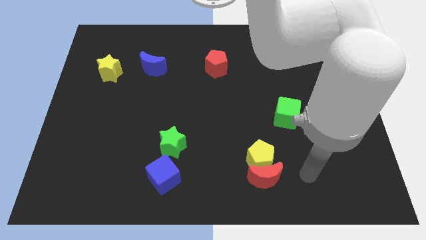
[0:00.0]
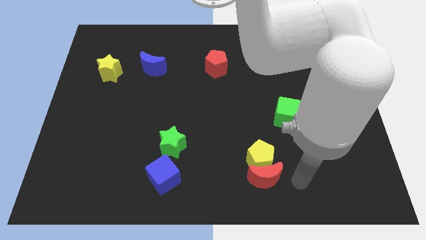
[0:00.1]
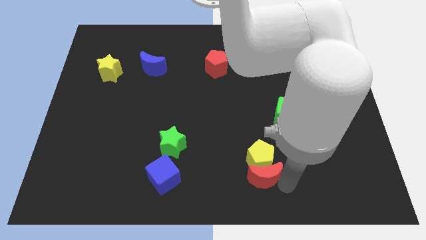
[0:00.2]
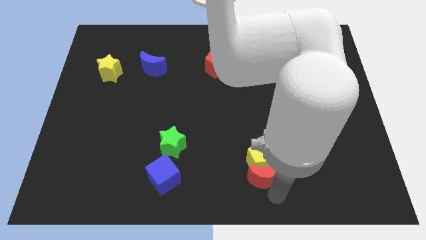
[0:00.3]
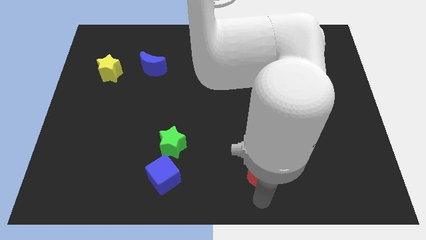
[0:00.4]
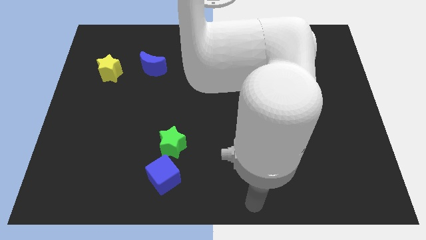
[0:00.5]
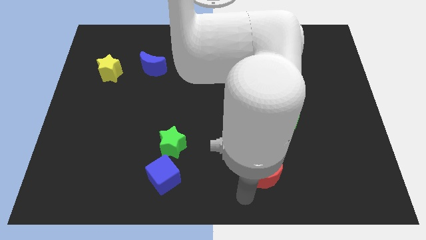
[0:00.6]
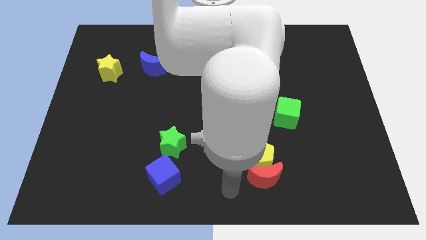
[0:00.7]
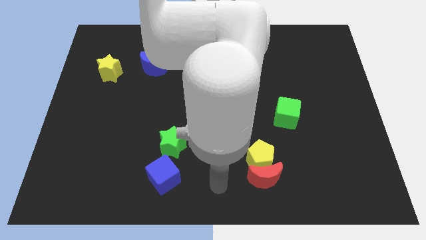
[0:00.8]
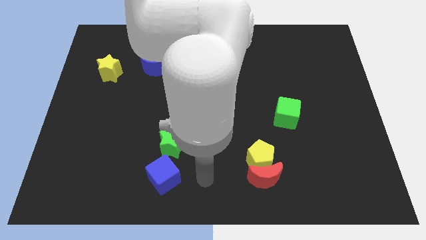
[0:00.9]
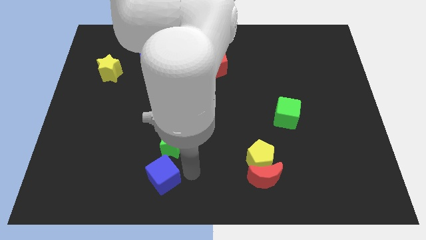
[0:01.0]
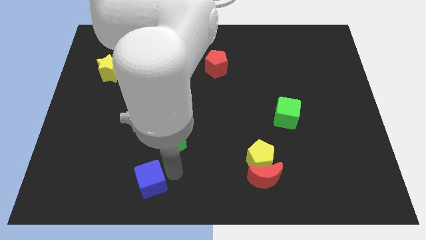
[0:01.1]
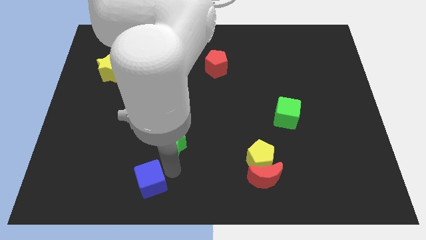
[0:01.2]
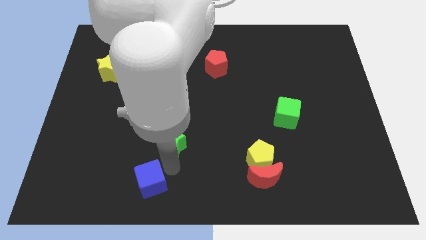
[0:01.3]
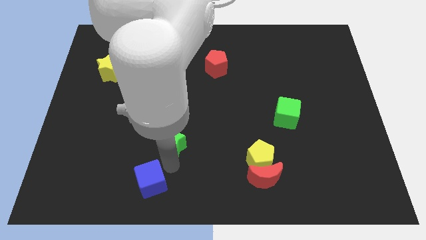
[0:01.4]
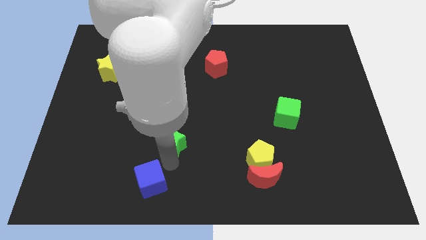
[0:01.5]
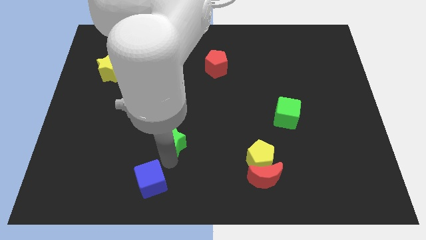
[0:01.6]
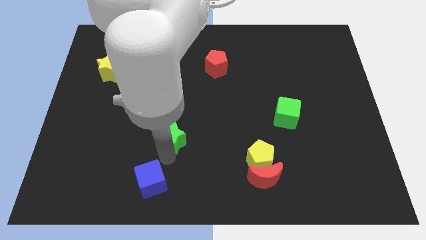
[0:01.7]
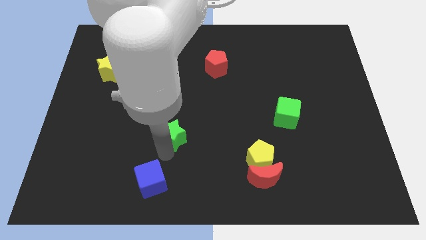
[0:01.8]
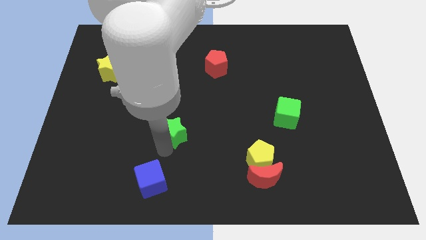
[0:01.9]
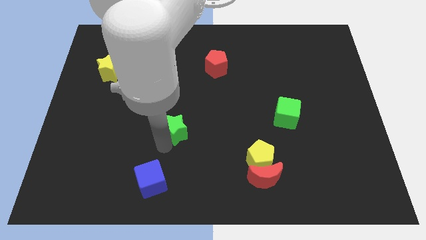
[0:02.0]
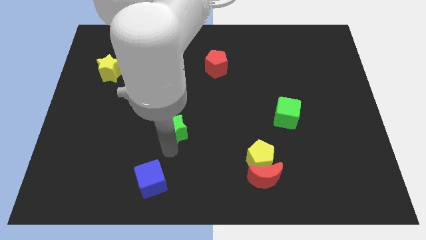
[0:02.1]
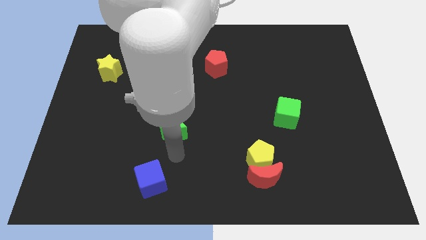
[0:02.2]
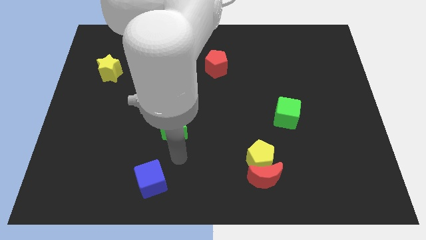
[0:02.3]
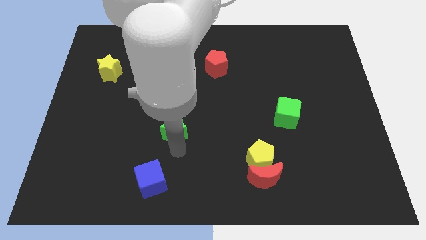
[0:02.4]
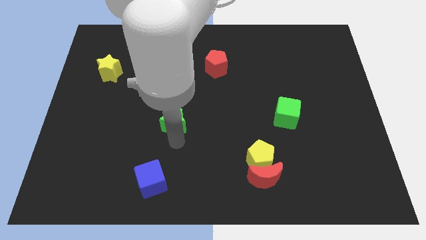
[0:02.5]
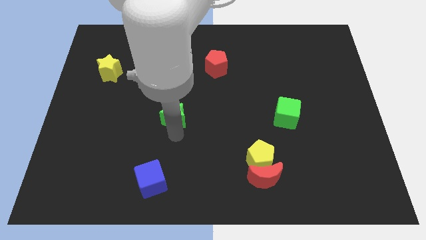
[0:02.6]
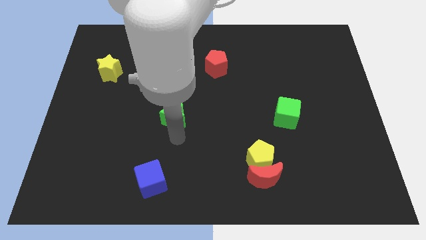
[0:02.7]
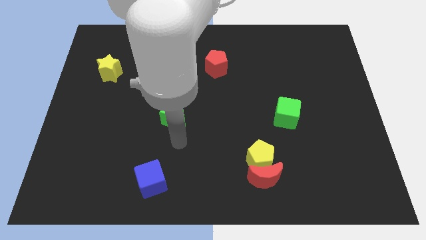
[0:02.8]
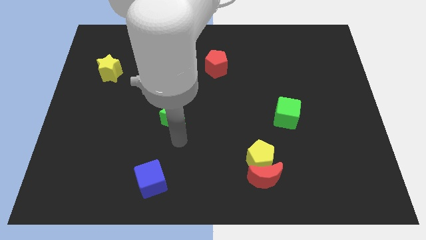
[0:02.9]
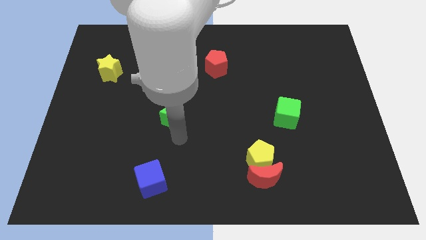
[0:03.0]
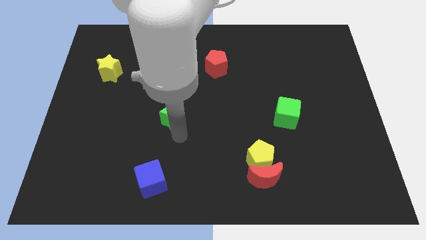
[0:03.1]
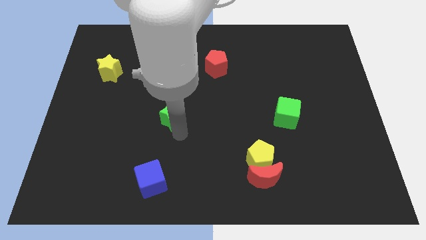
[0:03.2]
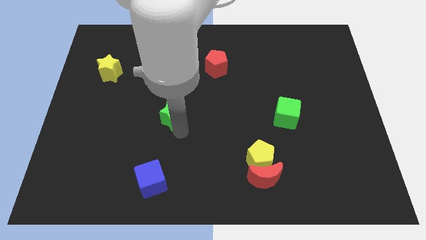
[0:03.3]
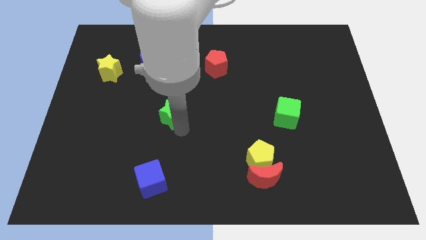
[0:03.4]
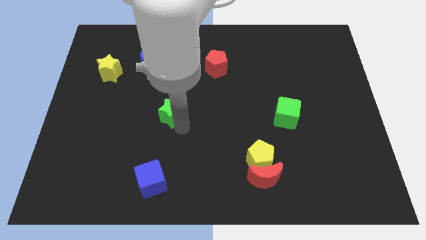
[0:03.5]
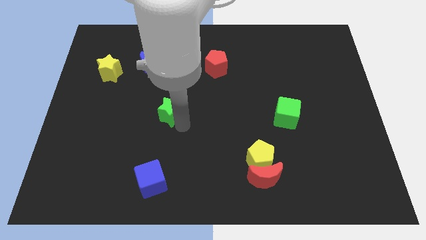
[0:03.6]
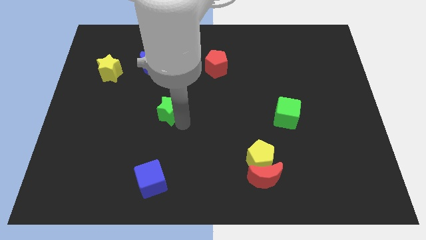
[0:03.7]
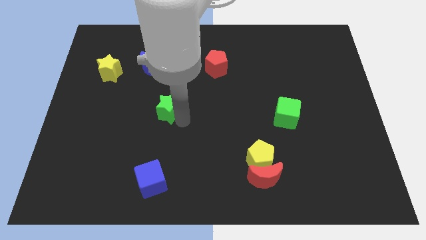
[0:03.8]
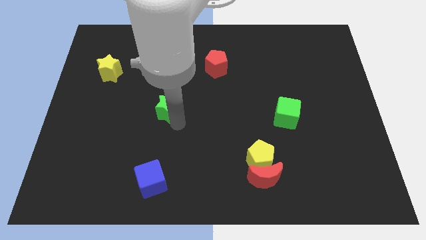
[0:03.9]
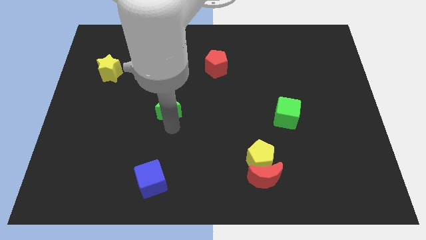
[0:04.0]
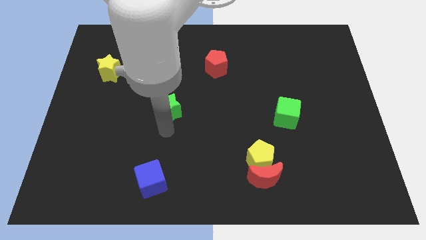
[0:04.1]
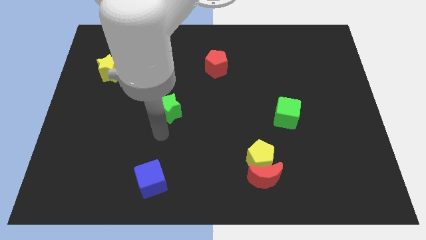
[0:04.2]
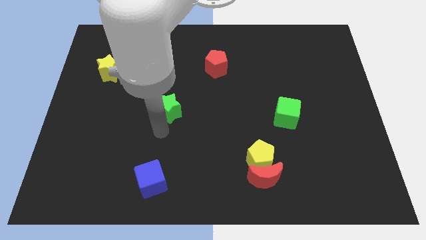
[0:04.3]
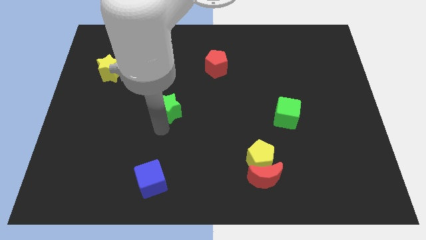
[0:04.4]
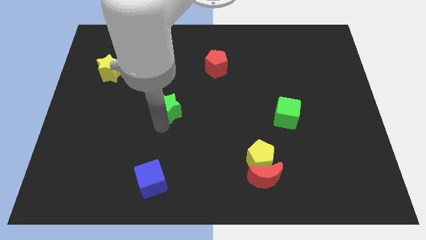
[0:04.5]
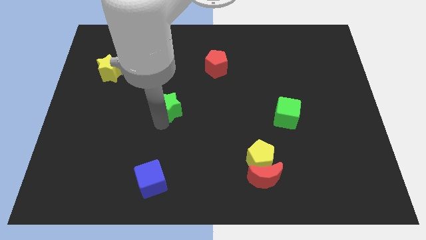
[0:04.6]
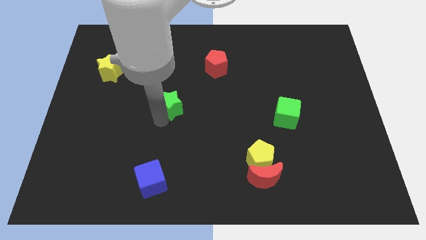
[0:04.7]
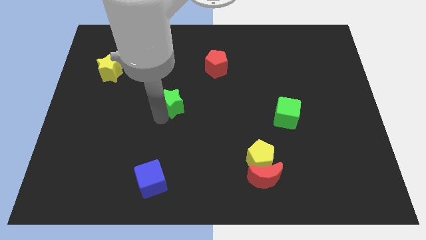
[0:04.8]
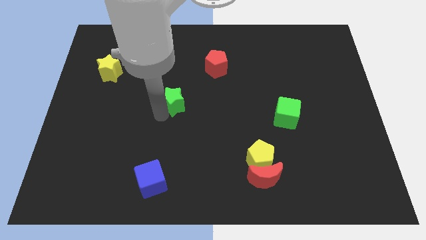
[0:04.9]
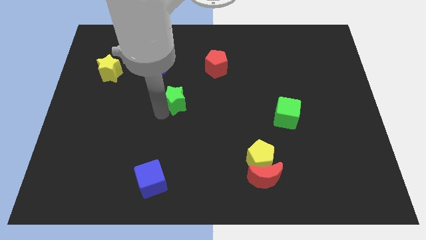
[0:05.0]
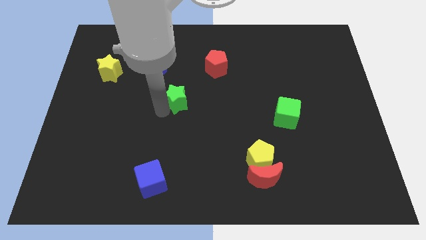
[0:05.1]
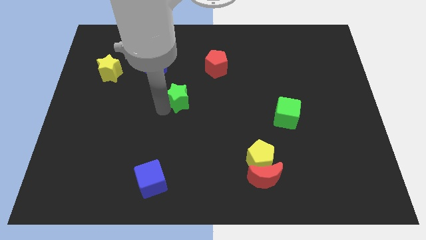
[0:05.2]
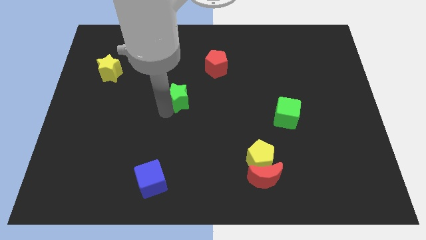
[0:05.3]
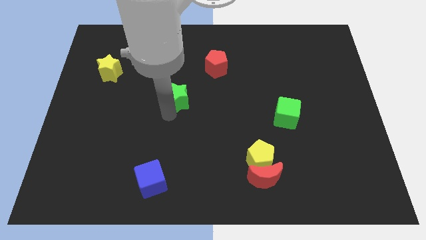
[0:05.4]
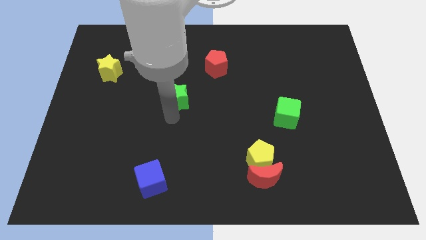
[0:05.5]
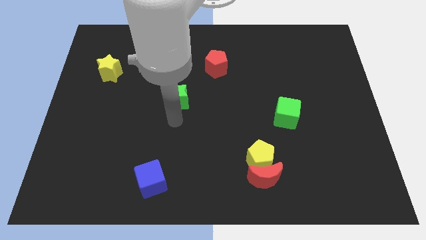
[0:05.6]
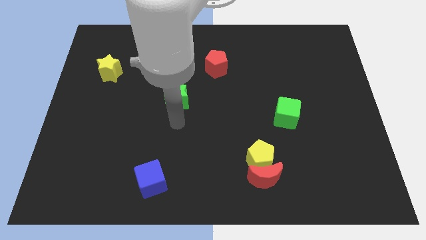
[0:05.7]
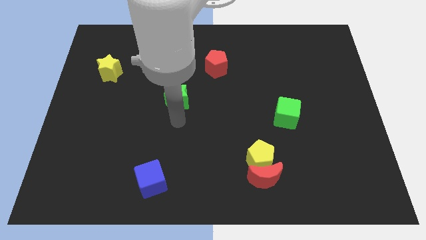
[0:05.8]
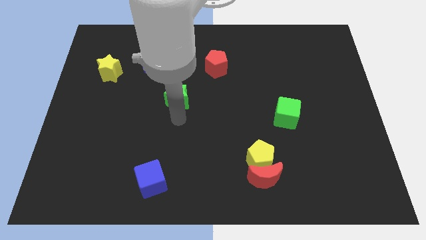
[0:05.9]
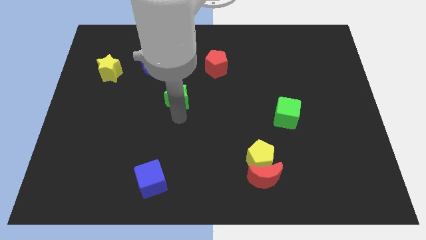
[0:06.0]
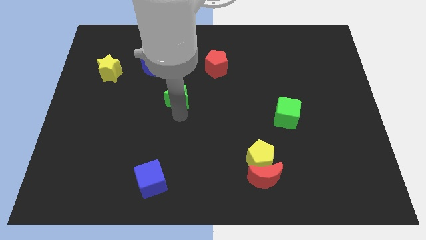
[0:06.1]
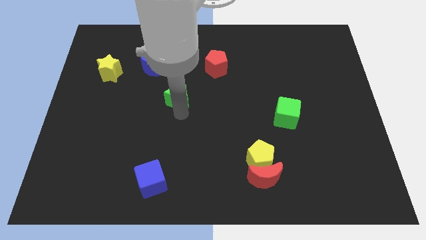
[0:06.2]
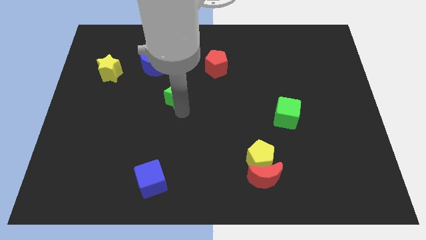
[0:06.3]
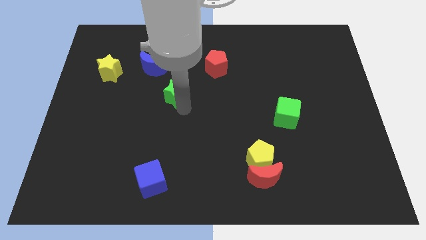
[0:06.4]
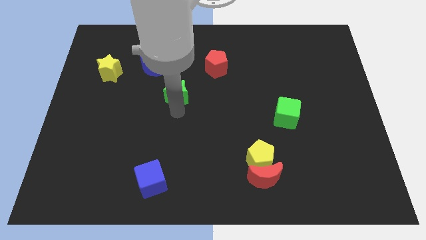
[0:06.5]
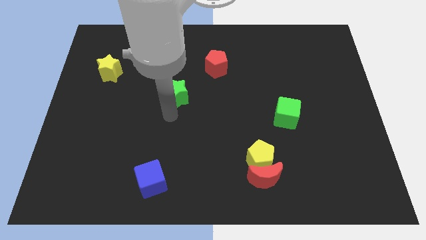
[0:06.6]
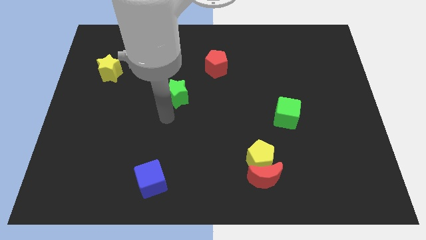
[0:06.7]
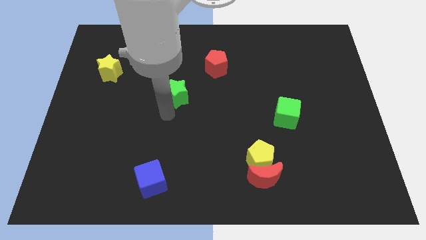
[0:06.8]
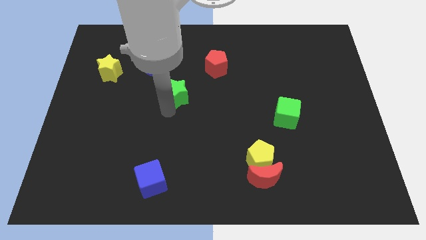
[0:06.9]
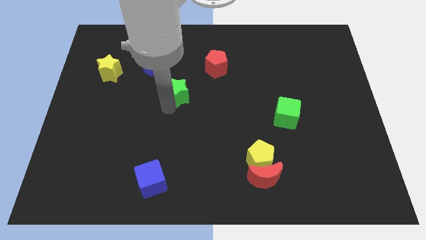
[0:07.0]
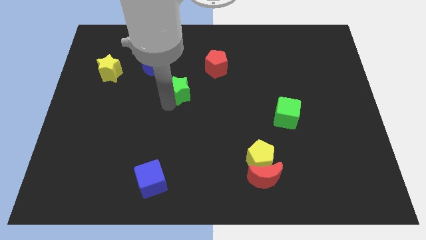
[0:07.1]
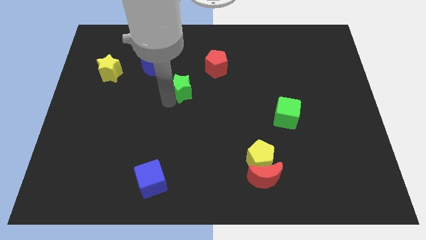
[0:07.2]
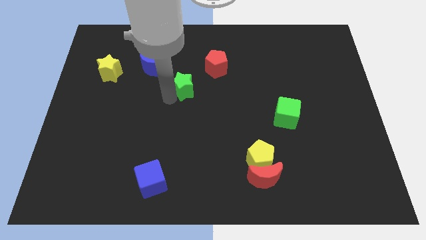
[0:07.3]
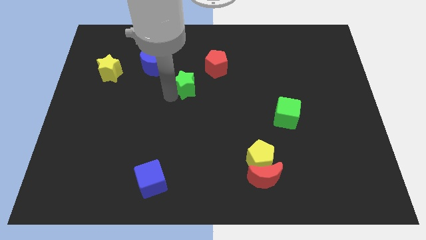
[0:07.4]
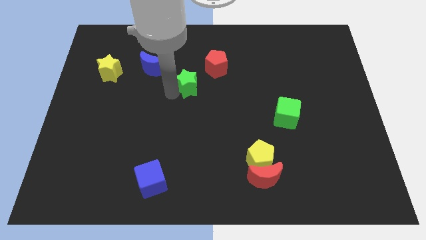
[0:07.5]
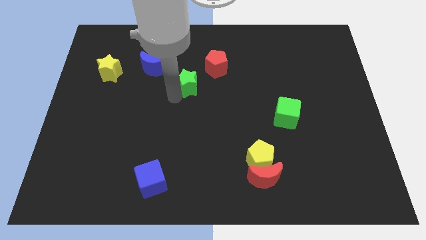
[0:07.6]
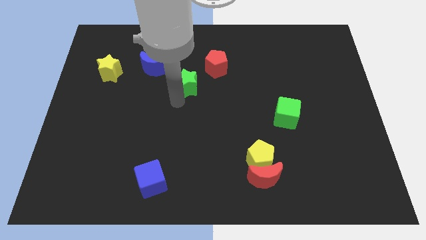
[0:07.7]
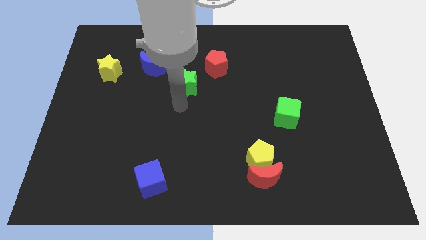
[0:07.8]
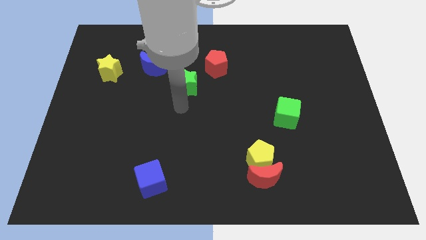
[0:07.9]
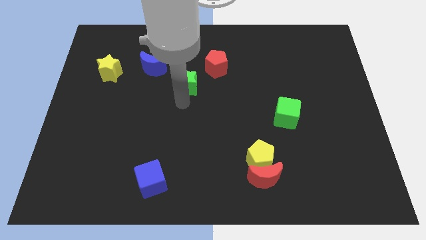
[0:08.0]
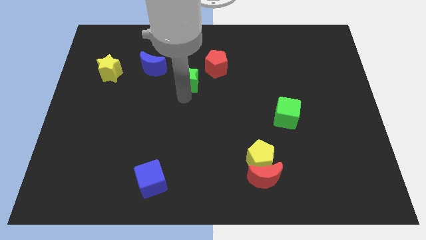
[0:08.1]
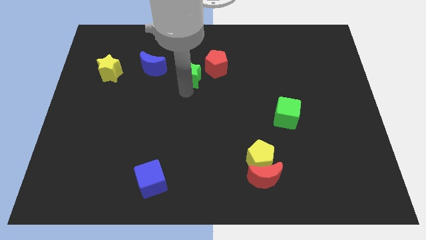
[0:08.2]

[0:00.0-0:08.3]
move the green star just right of the blue moon
